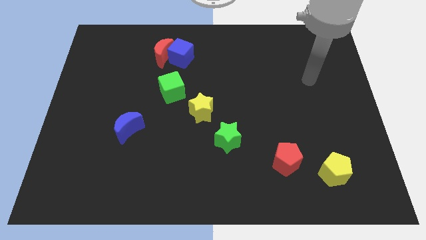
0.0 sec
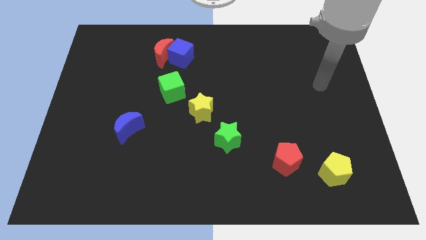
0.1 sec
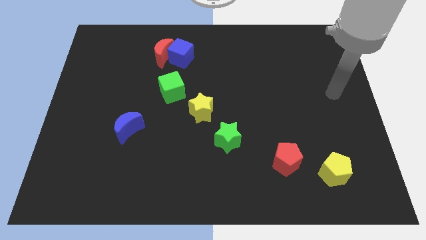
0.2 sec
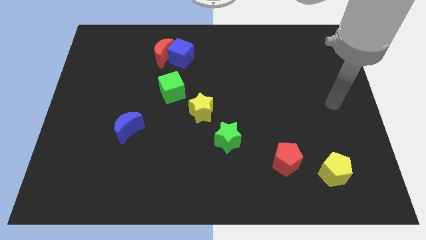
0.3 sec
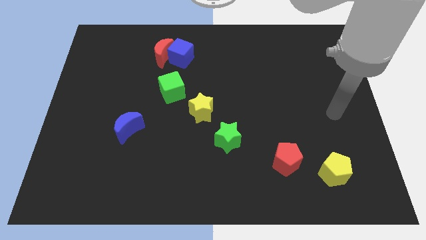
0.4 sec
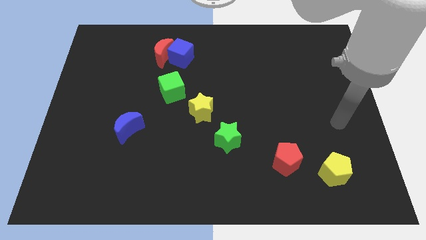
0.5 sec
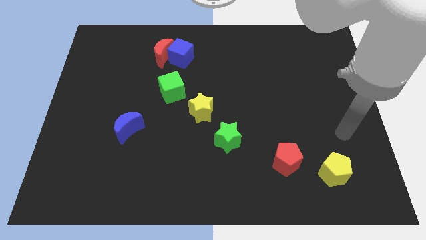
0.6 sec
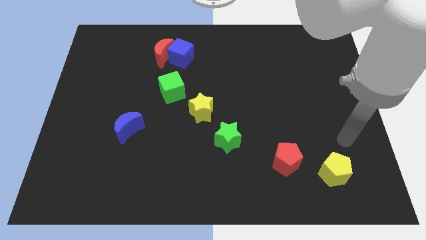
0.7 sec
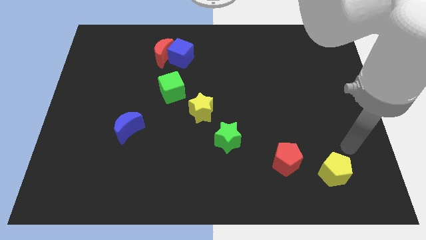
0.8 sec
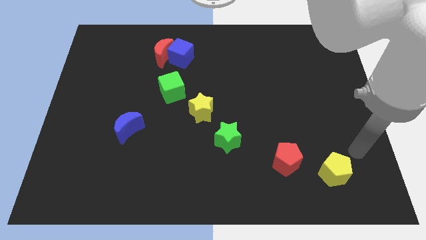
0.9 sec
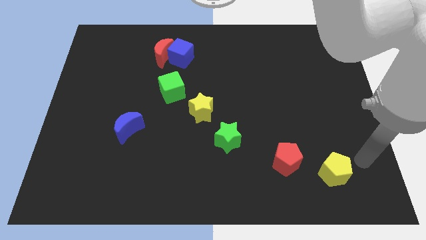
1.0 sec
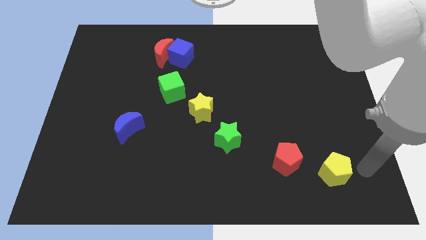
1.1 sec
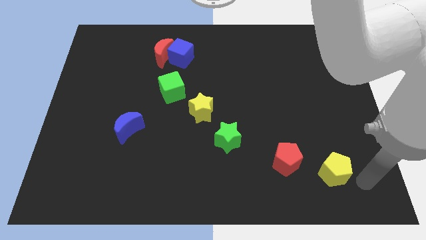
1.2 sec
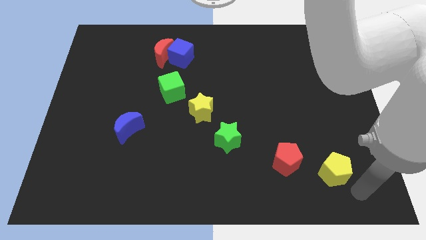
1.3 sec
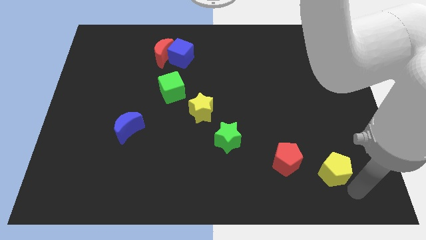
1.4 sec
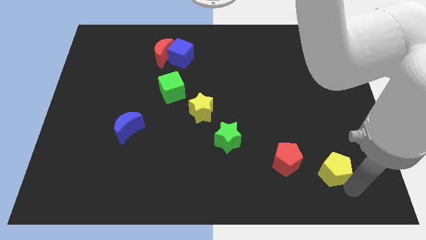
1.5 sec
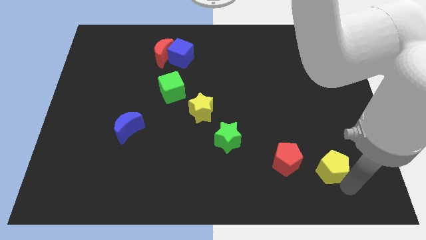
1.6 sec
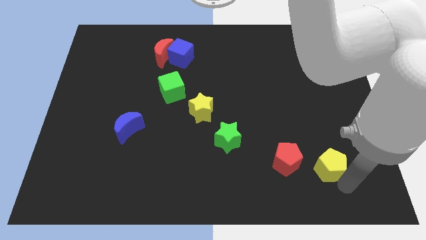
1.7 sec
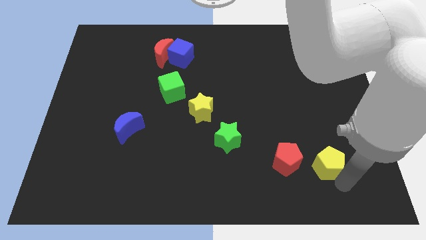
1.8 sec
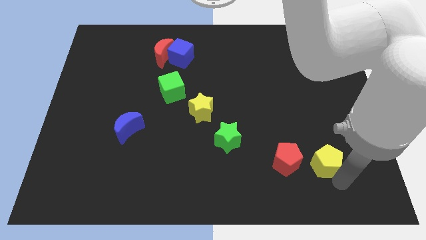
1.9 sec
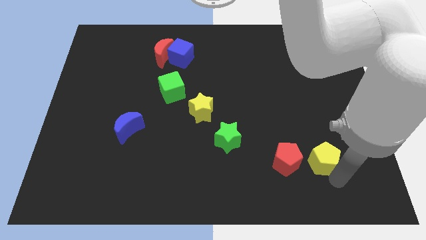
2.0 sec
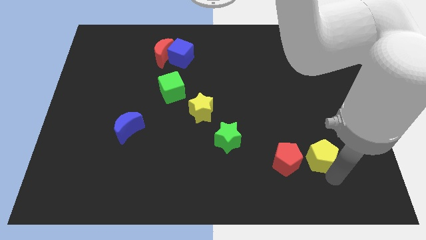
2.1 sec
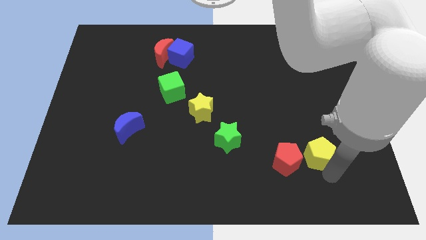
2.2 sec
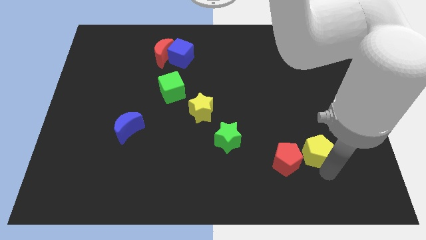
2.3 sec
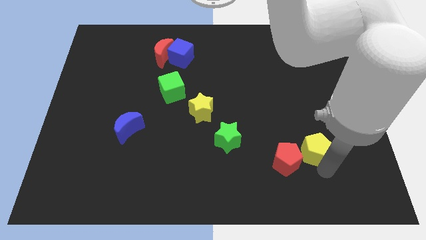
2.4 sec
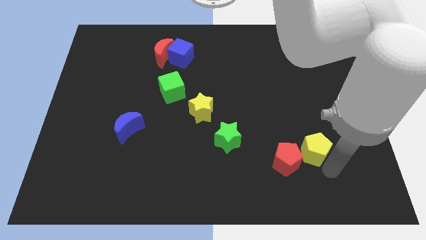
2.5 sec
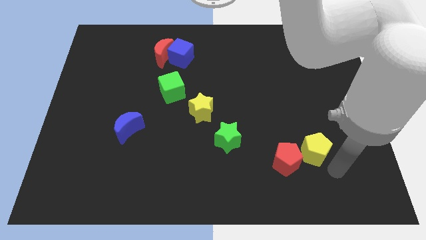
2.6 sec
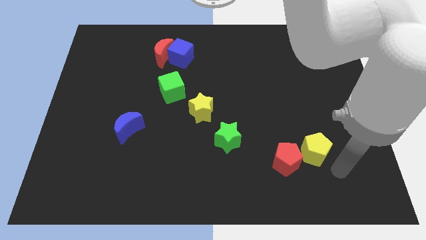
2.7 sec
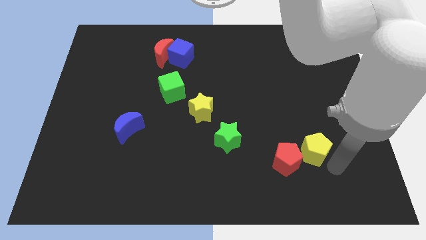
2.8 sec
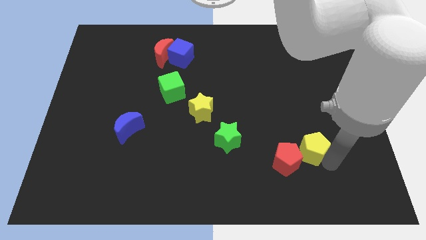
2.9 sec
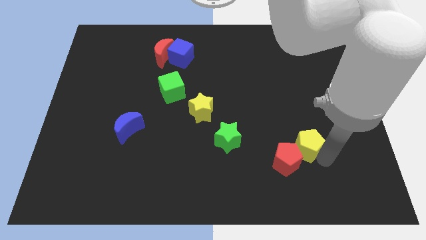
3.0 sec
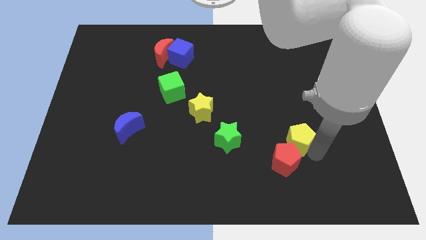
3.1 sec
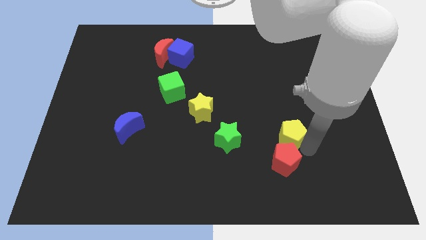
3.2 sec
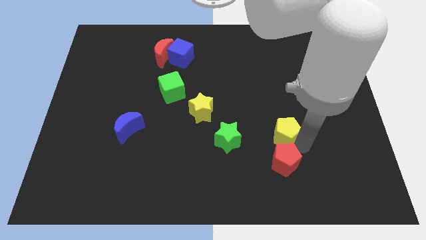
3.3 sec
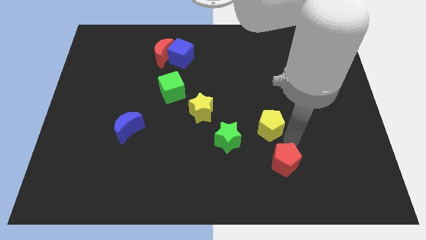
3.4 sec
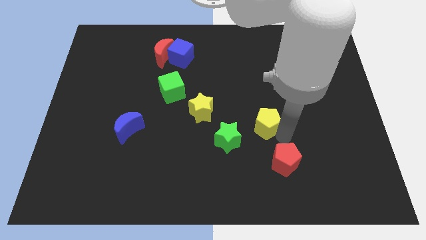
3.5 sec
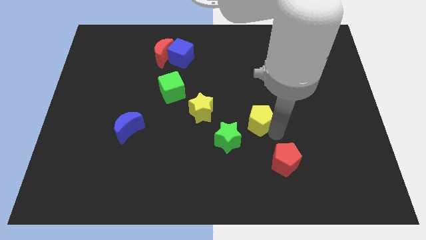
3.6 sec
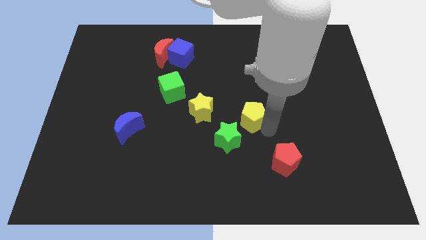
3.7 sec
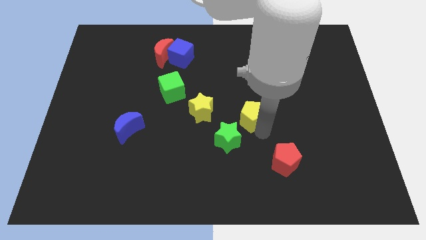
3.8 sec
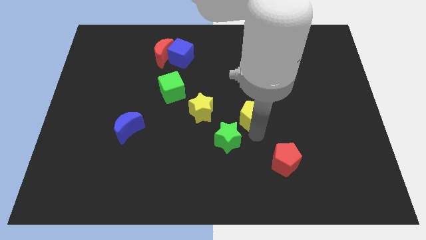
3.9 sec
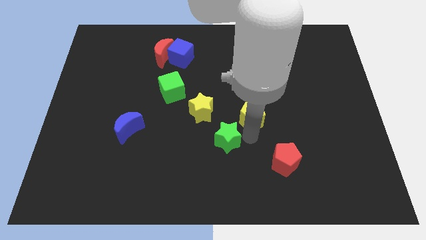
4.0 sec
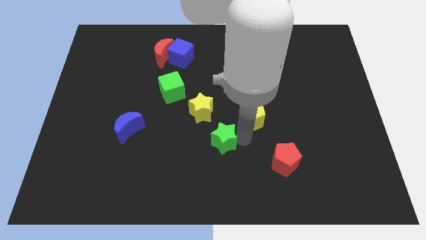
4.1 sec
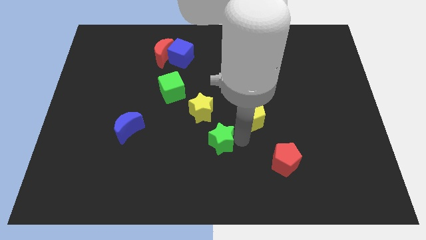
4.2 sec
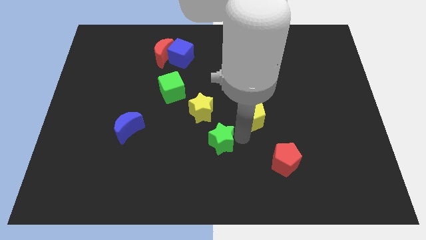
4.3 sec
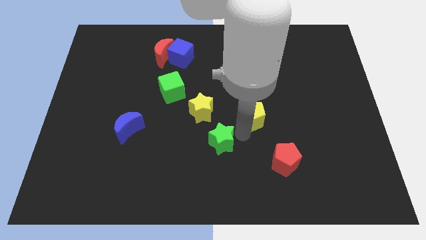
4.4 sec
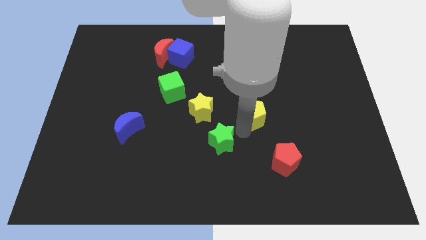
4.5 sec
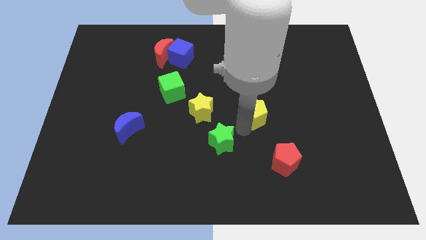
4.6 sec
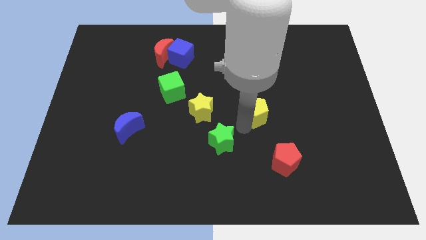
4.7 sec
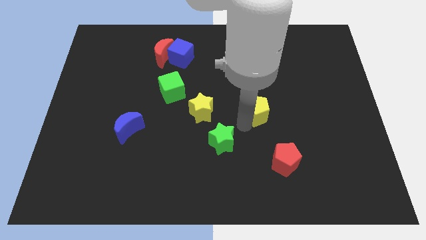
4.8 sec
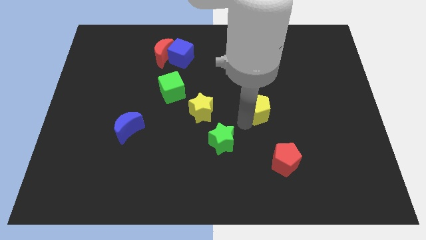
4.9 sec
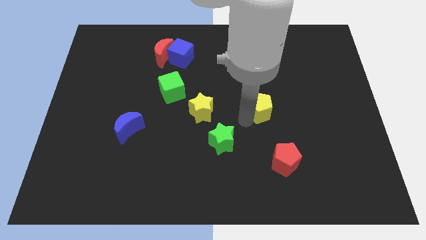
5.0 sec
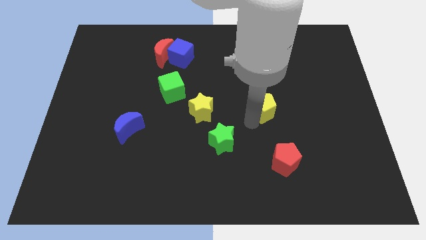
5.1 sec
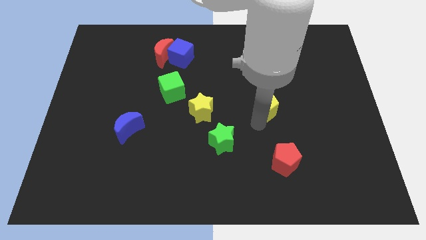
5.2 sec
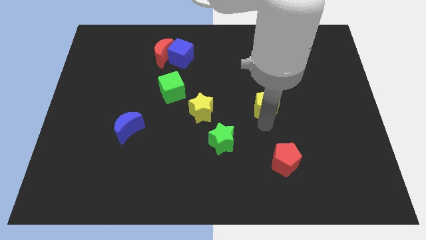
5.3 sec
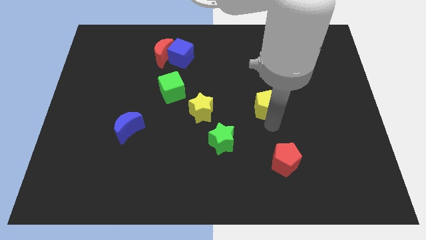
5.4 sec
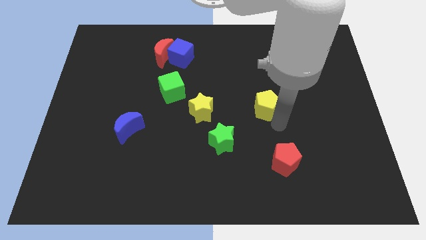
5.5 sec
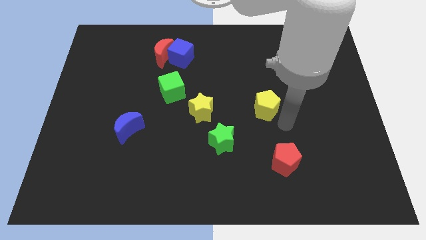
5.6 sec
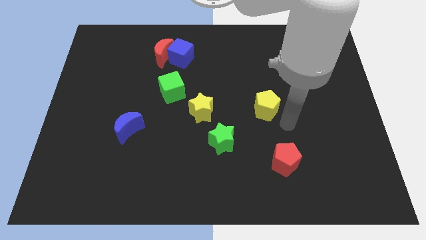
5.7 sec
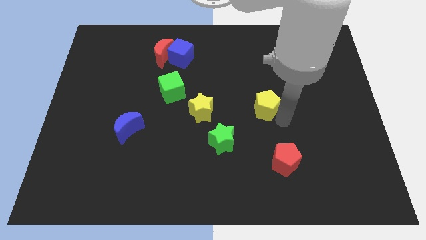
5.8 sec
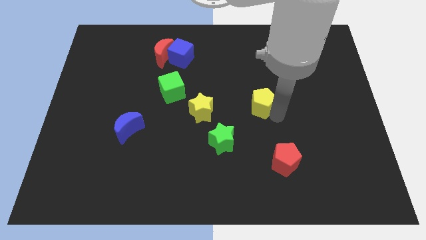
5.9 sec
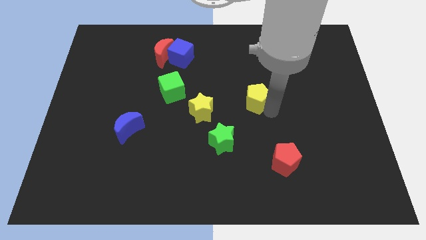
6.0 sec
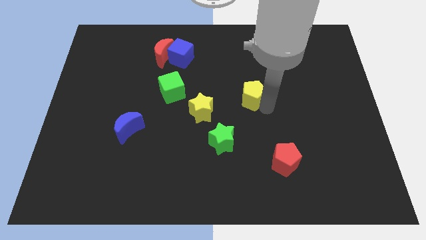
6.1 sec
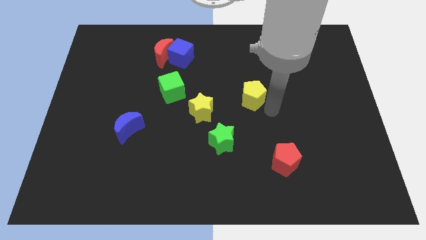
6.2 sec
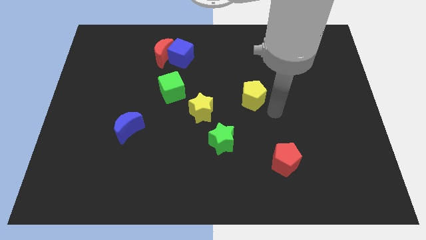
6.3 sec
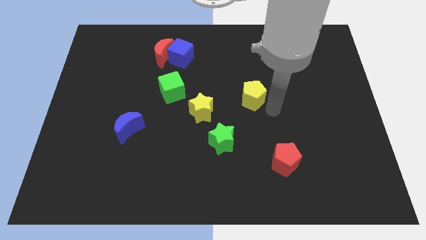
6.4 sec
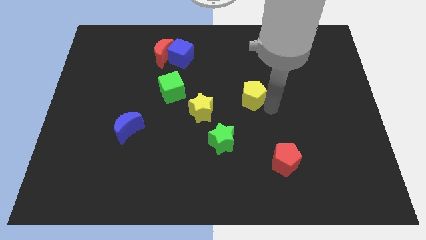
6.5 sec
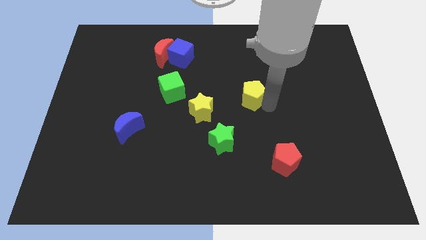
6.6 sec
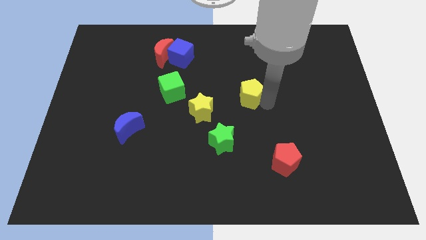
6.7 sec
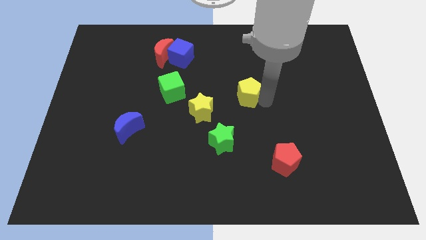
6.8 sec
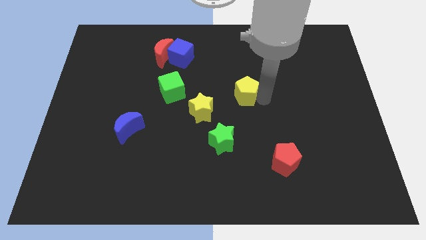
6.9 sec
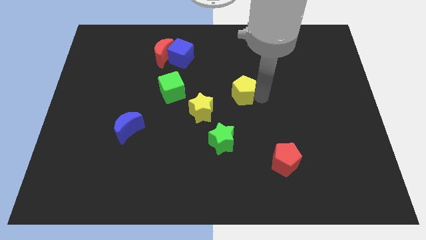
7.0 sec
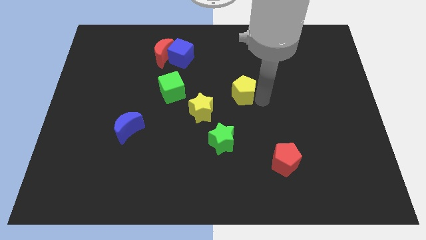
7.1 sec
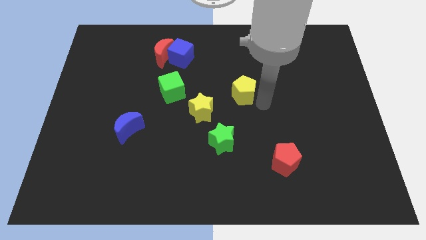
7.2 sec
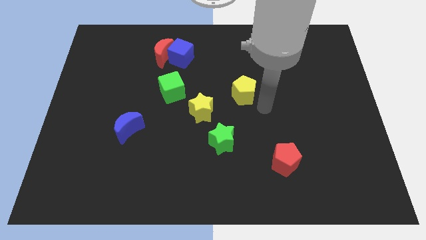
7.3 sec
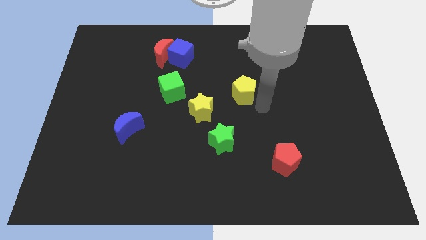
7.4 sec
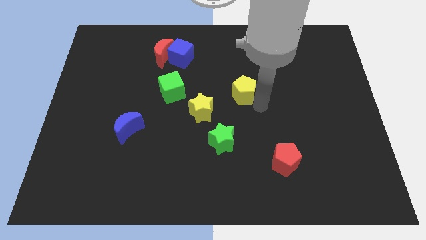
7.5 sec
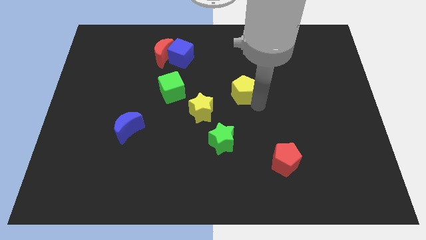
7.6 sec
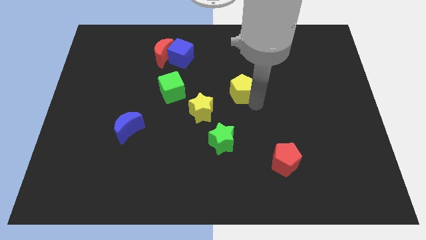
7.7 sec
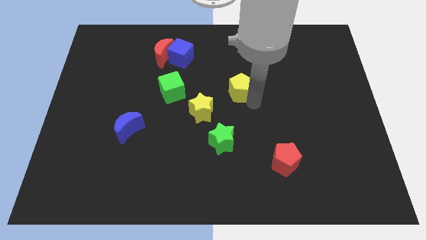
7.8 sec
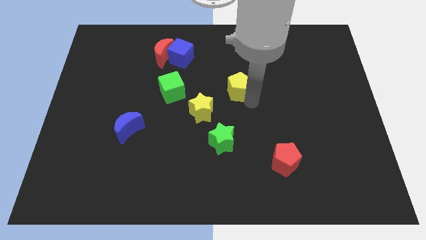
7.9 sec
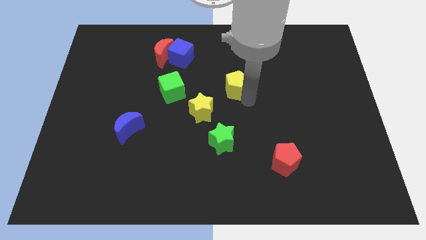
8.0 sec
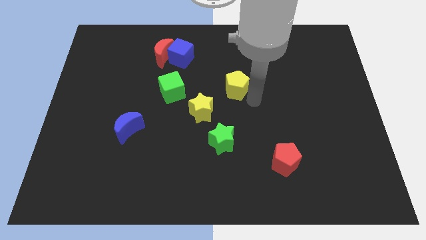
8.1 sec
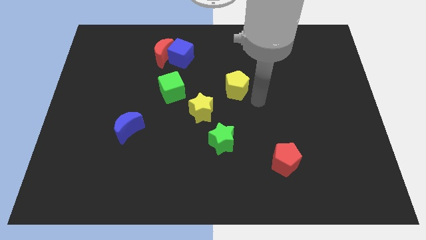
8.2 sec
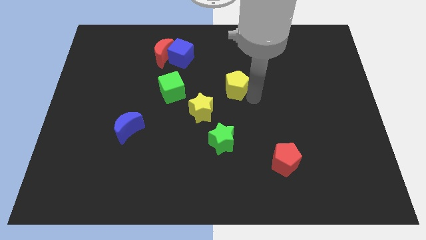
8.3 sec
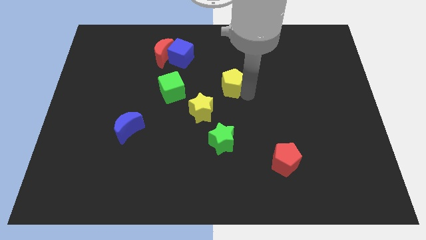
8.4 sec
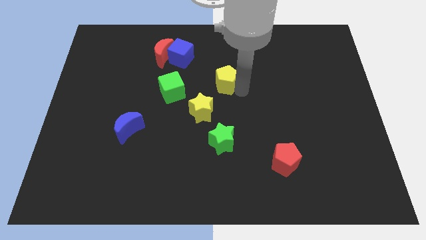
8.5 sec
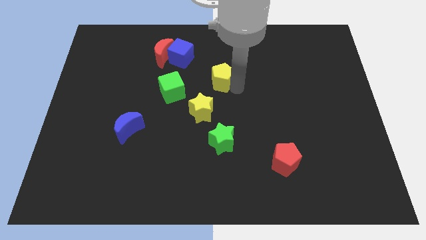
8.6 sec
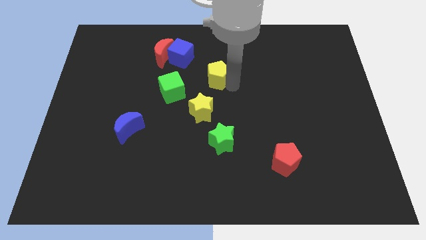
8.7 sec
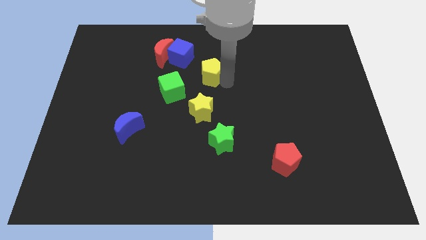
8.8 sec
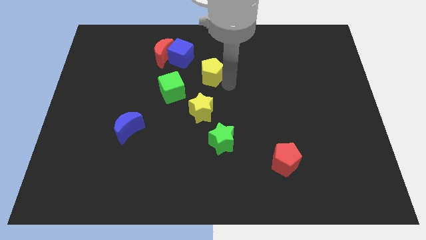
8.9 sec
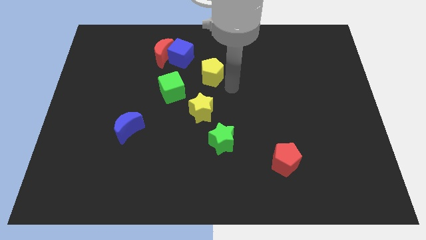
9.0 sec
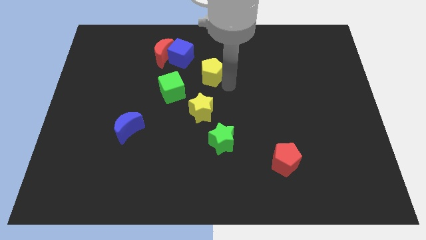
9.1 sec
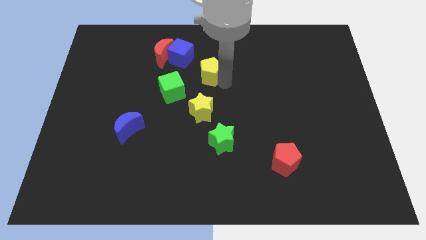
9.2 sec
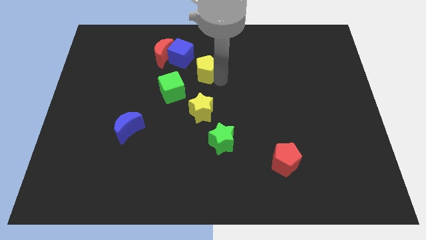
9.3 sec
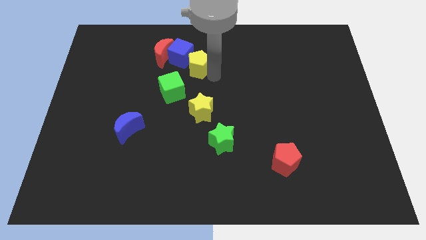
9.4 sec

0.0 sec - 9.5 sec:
move the yellow pentagon towards the blue cube
